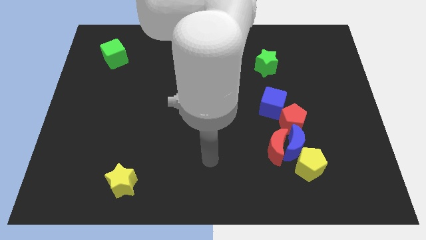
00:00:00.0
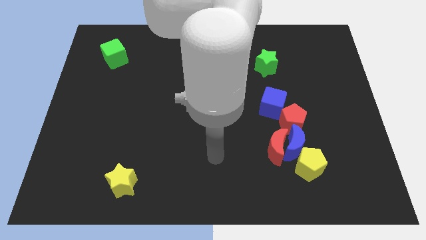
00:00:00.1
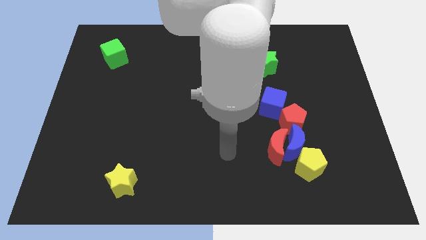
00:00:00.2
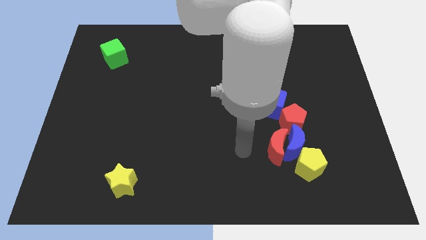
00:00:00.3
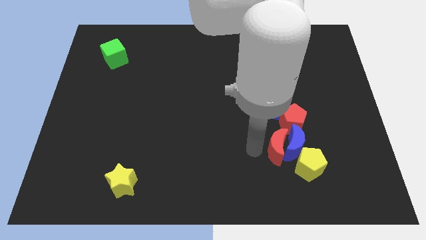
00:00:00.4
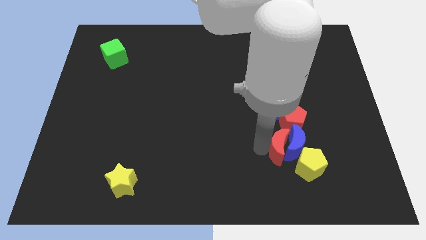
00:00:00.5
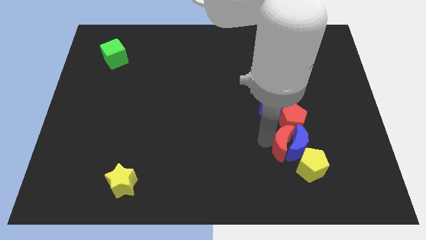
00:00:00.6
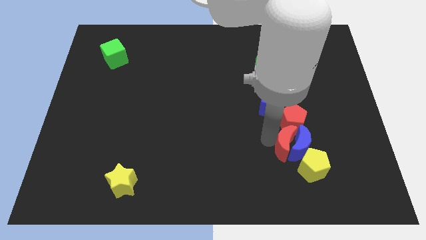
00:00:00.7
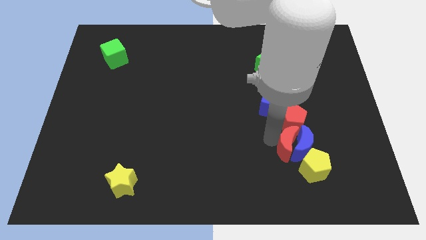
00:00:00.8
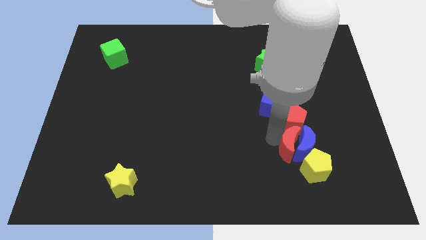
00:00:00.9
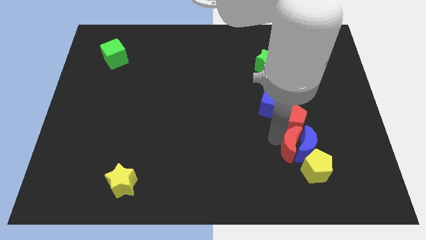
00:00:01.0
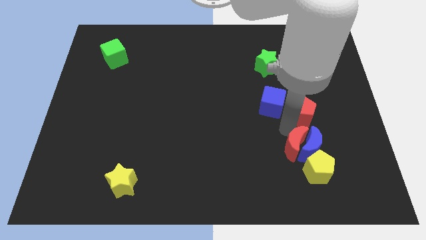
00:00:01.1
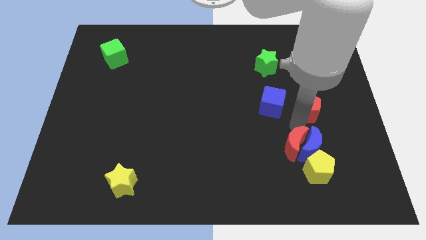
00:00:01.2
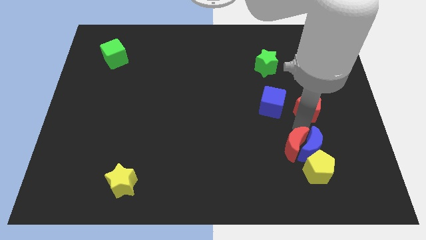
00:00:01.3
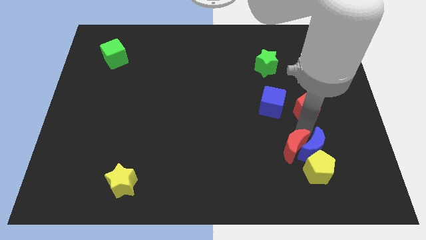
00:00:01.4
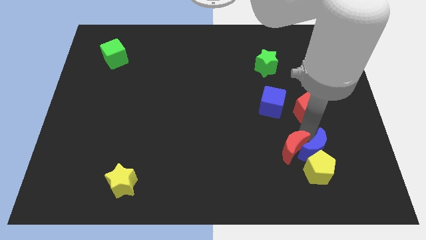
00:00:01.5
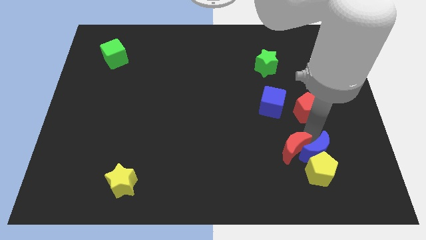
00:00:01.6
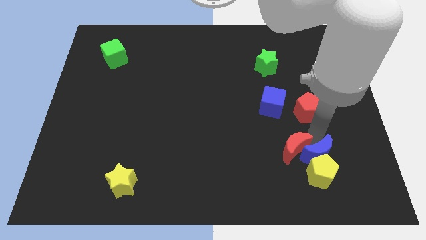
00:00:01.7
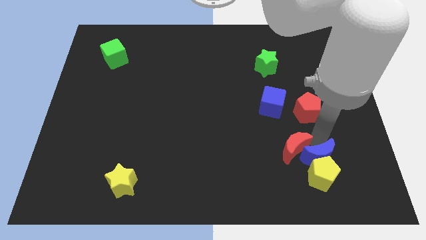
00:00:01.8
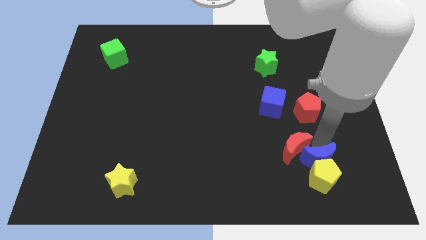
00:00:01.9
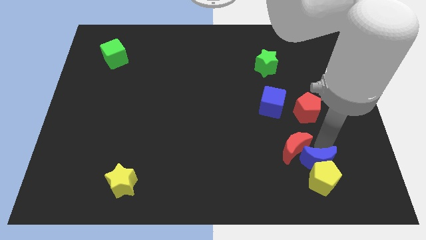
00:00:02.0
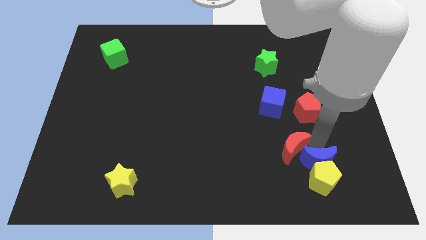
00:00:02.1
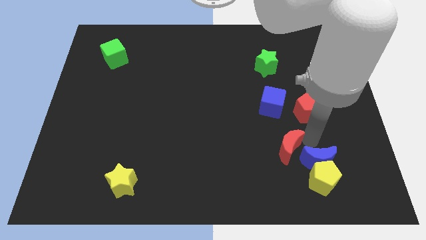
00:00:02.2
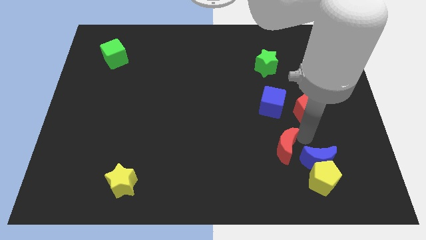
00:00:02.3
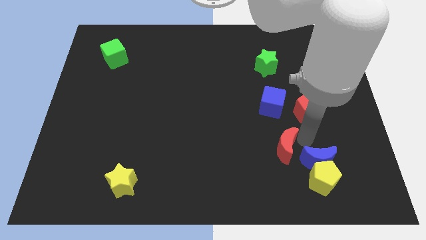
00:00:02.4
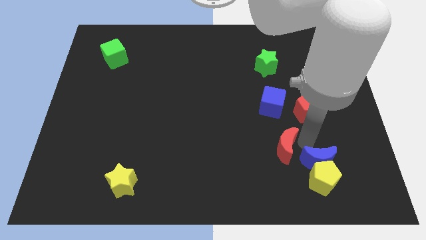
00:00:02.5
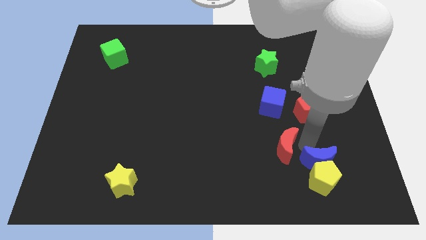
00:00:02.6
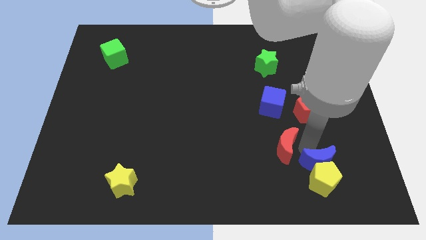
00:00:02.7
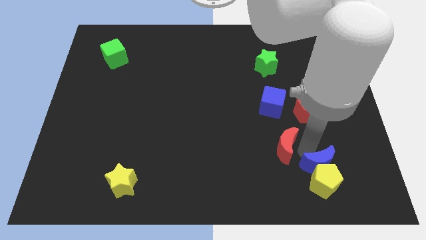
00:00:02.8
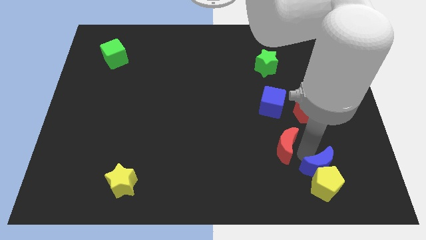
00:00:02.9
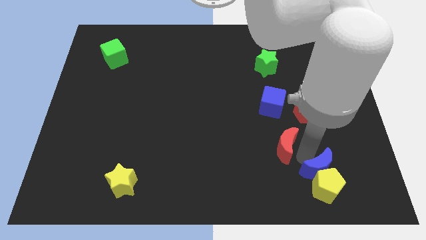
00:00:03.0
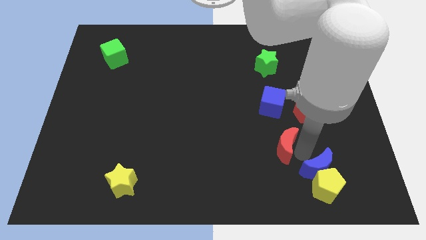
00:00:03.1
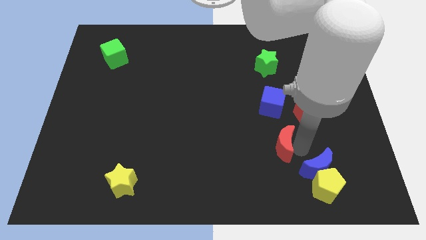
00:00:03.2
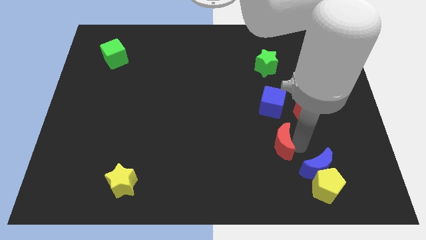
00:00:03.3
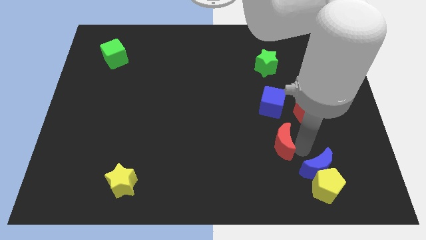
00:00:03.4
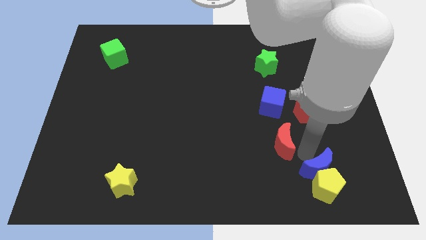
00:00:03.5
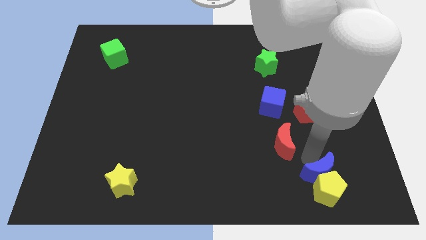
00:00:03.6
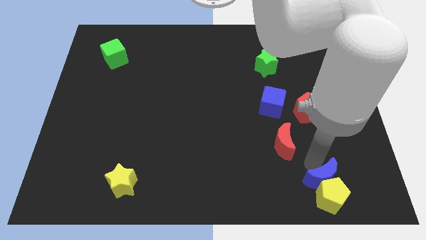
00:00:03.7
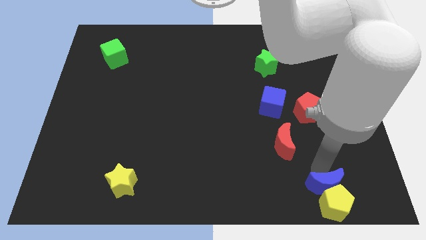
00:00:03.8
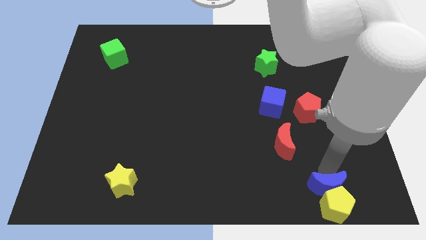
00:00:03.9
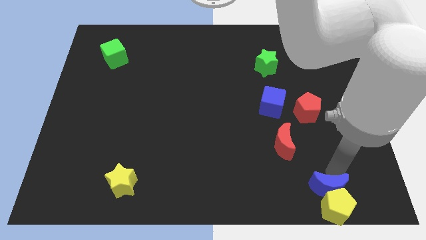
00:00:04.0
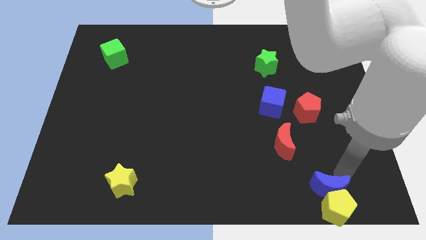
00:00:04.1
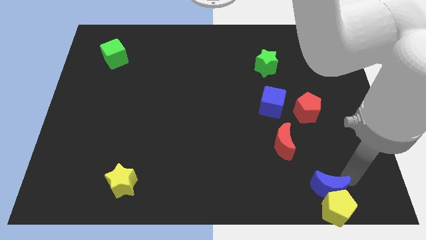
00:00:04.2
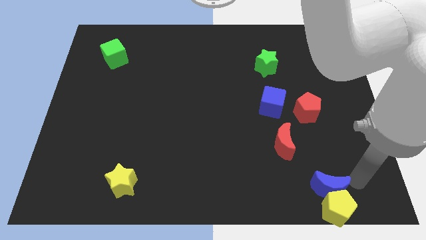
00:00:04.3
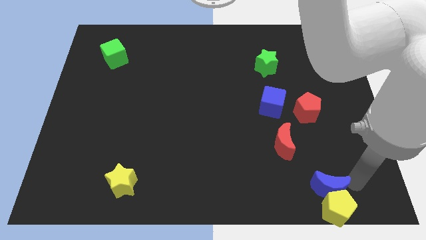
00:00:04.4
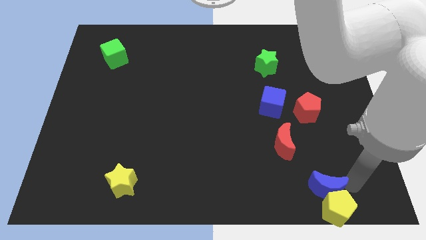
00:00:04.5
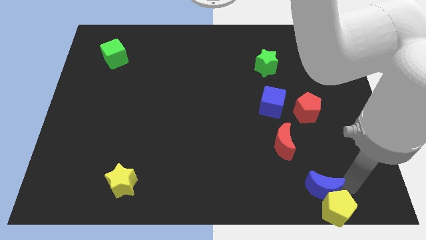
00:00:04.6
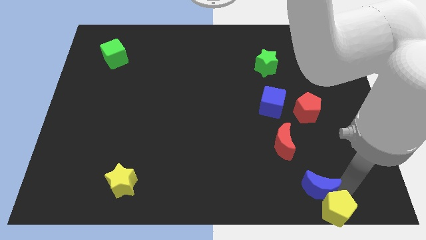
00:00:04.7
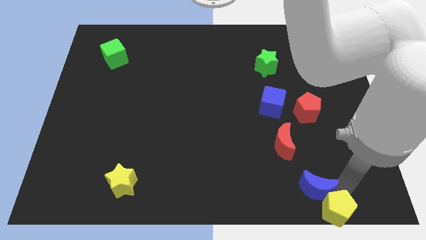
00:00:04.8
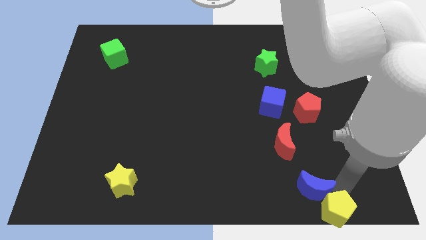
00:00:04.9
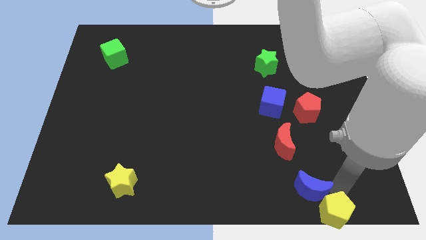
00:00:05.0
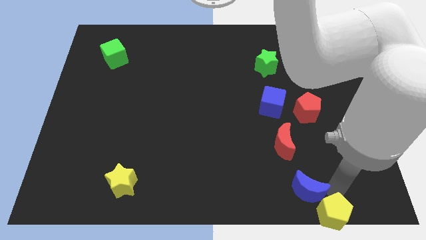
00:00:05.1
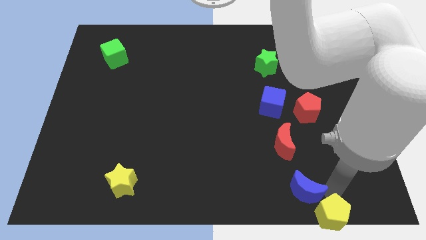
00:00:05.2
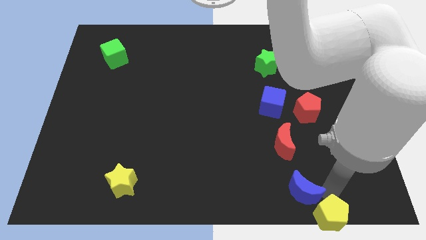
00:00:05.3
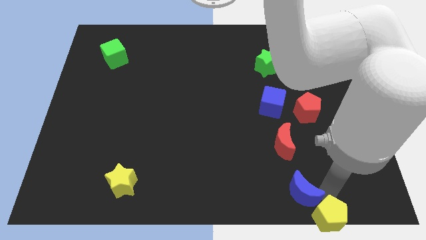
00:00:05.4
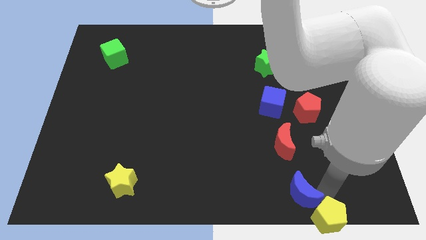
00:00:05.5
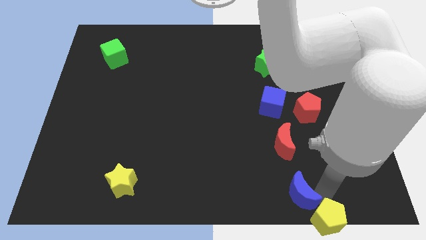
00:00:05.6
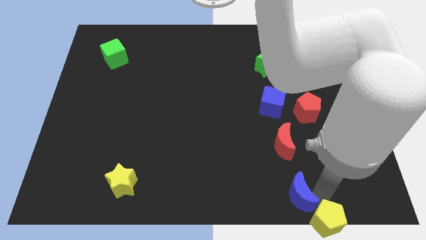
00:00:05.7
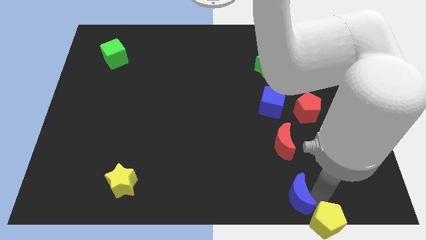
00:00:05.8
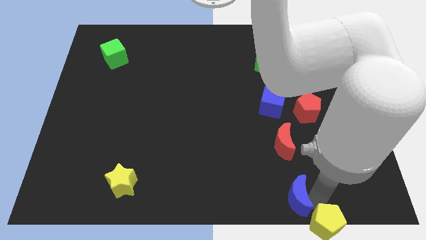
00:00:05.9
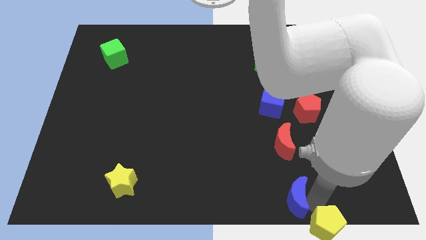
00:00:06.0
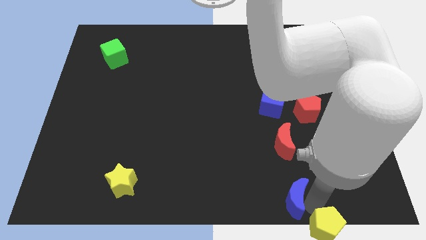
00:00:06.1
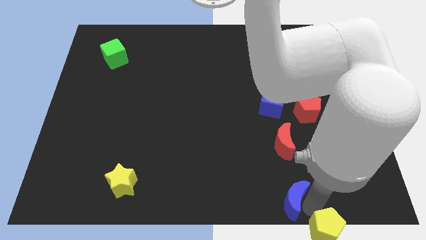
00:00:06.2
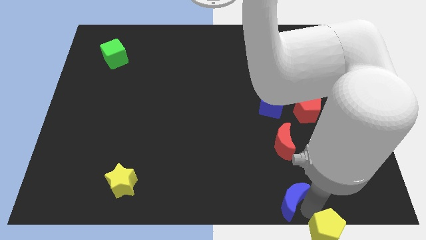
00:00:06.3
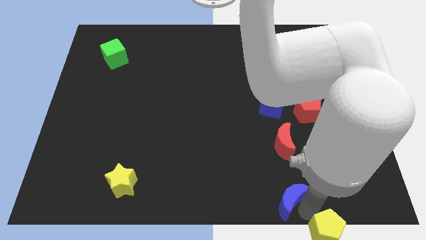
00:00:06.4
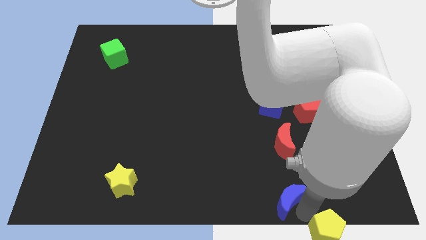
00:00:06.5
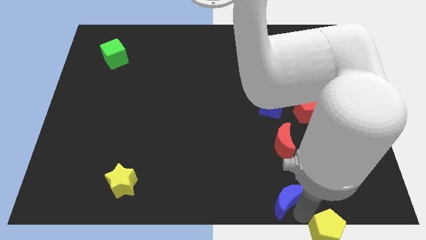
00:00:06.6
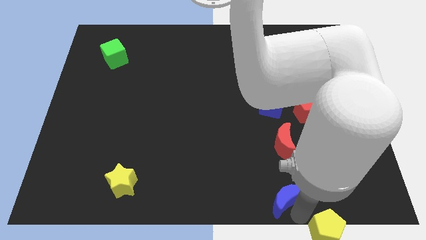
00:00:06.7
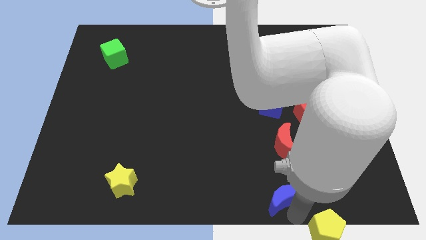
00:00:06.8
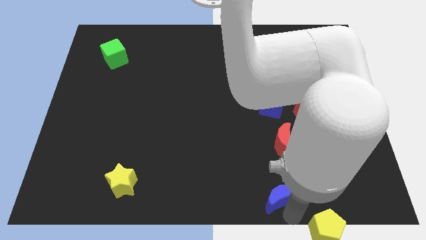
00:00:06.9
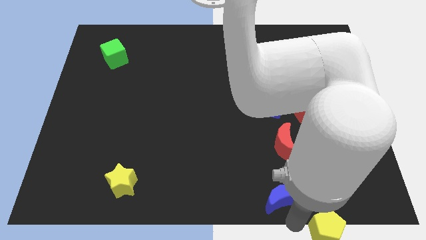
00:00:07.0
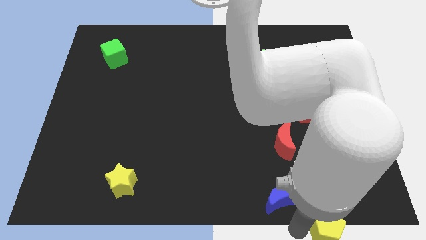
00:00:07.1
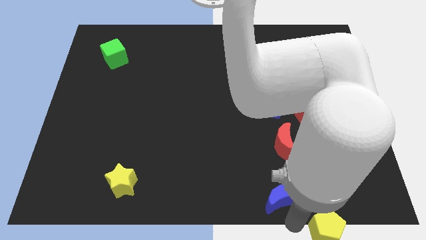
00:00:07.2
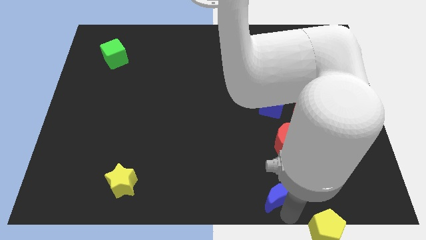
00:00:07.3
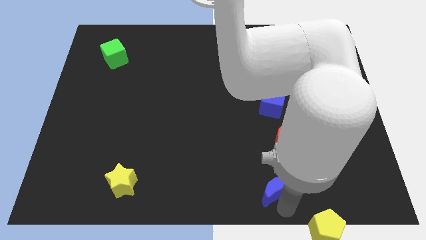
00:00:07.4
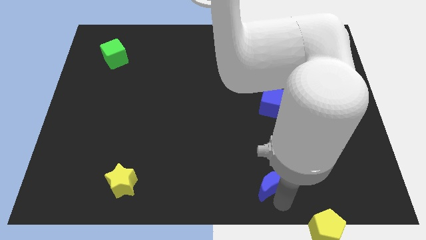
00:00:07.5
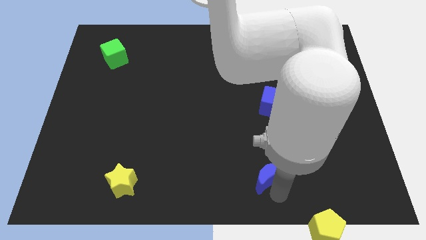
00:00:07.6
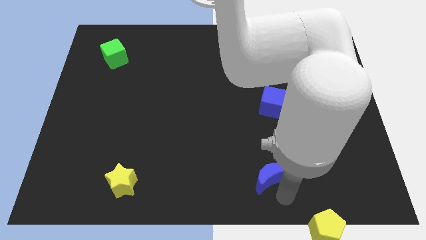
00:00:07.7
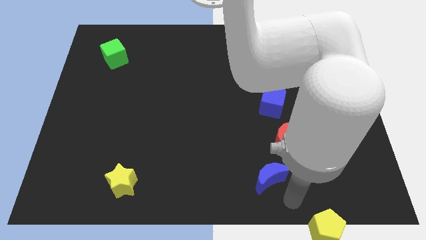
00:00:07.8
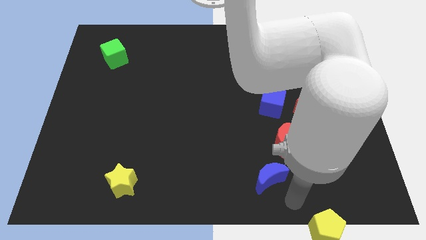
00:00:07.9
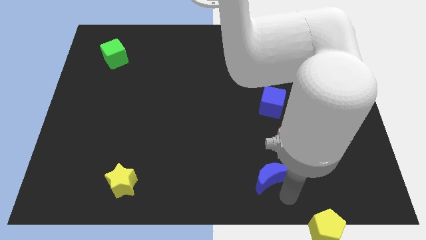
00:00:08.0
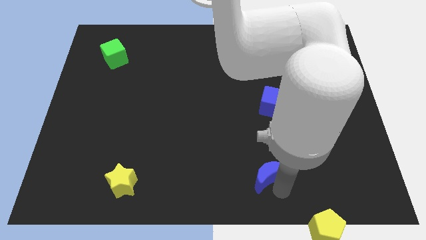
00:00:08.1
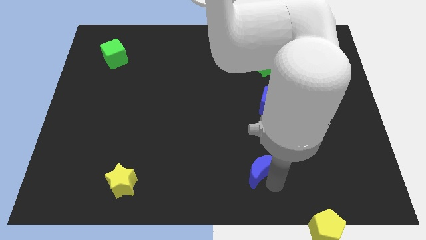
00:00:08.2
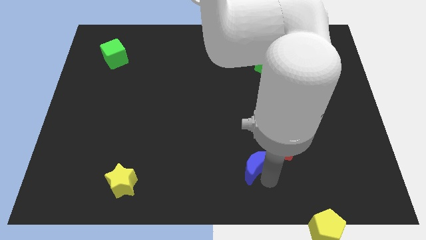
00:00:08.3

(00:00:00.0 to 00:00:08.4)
move the blue moon to the left a bit
